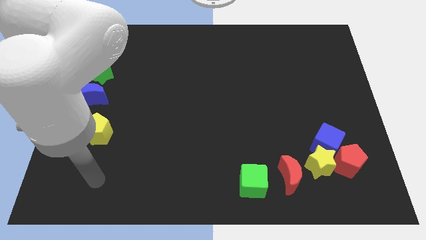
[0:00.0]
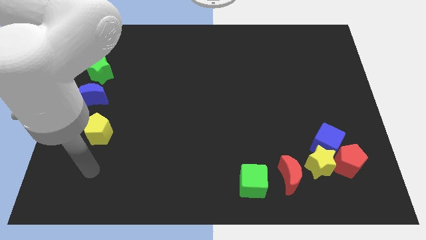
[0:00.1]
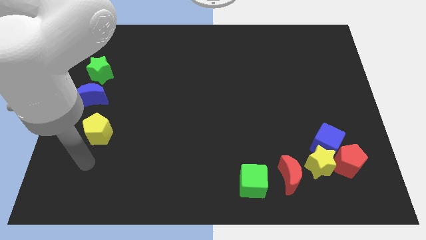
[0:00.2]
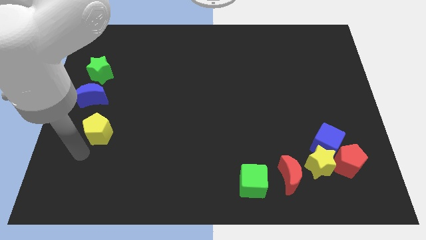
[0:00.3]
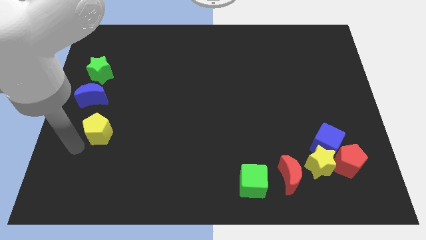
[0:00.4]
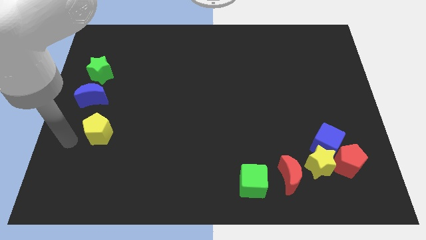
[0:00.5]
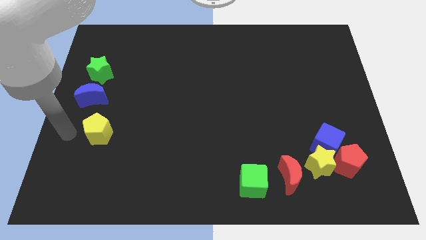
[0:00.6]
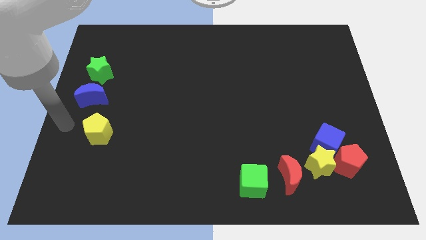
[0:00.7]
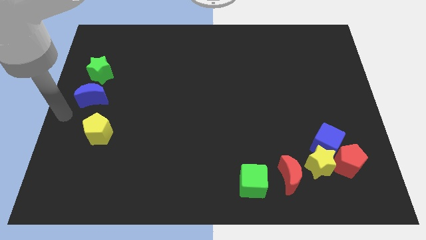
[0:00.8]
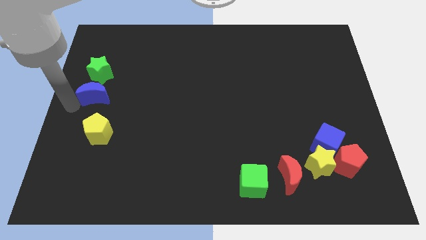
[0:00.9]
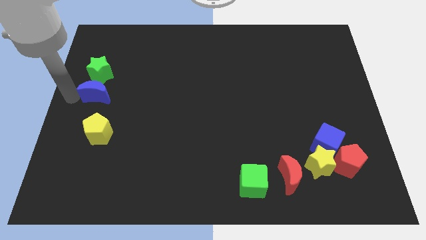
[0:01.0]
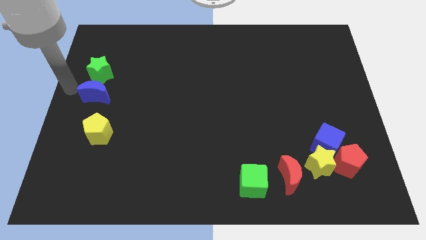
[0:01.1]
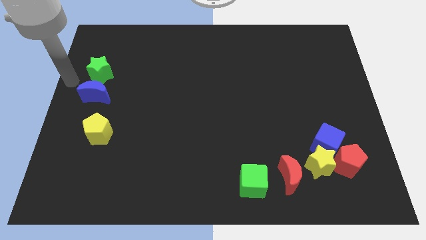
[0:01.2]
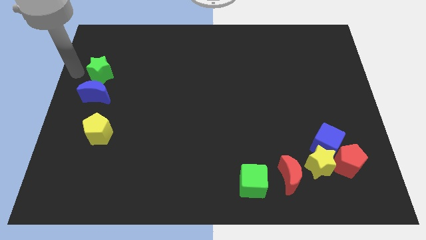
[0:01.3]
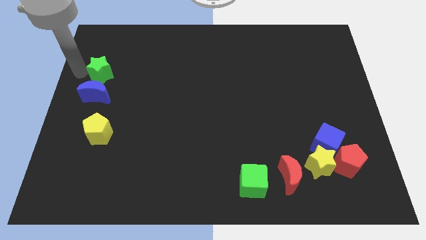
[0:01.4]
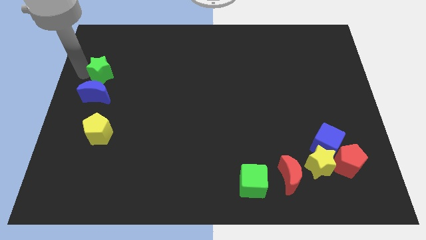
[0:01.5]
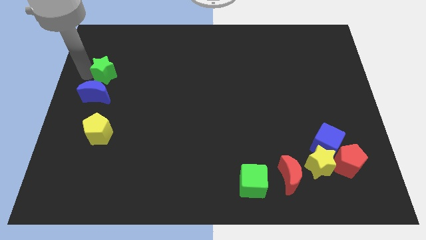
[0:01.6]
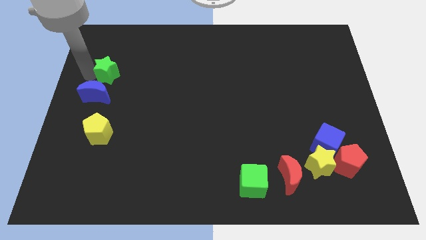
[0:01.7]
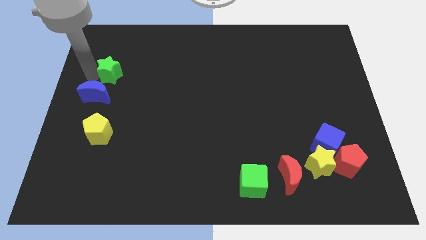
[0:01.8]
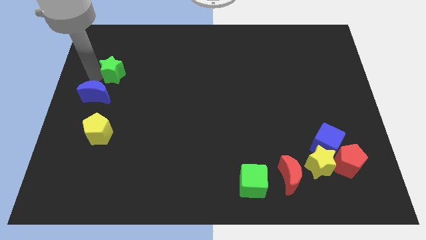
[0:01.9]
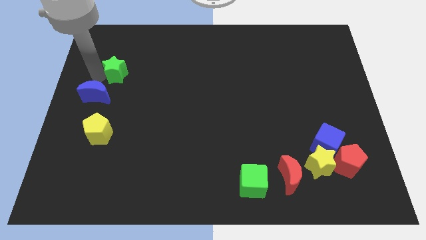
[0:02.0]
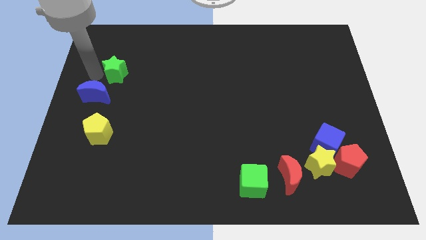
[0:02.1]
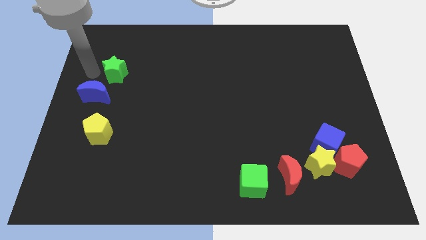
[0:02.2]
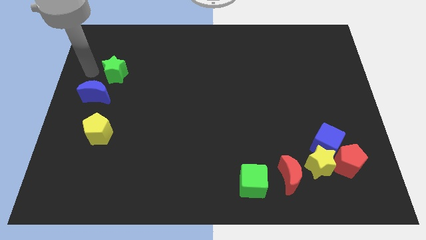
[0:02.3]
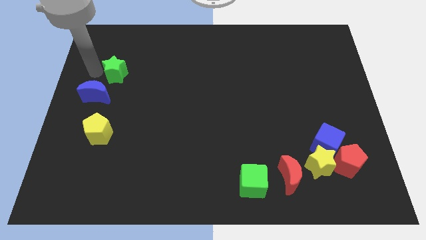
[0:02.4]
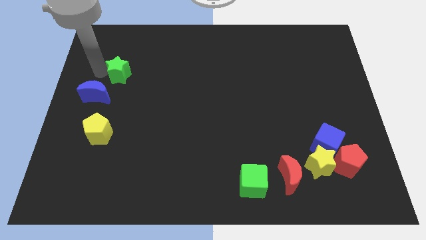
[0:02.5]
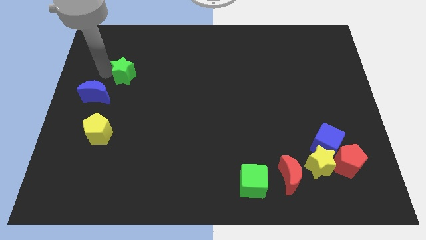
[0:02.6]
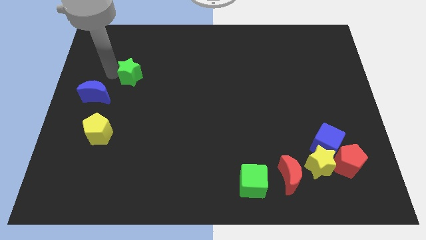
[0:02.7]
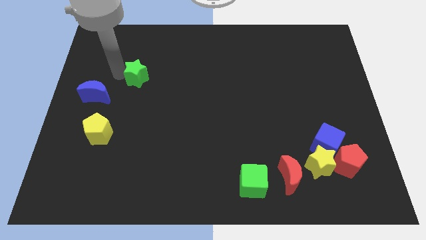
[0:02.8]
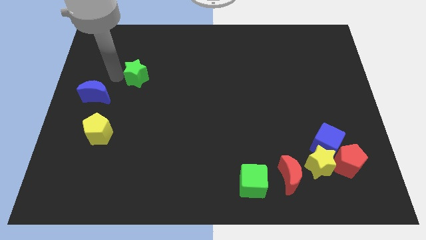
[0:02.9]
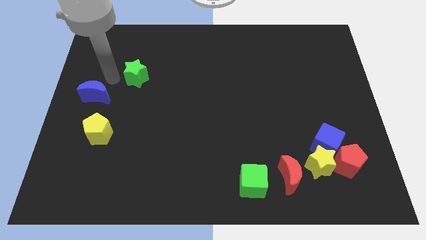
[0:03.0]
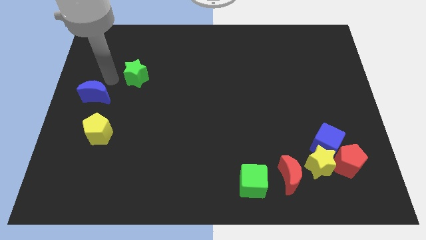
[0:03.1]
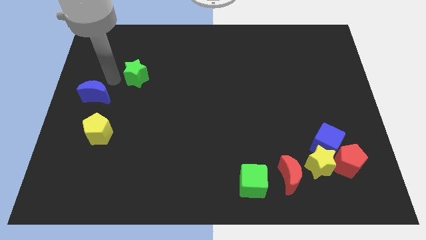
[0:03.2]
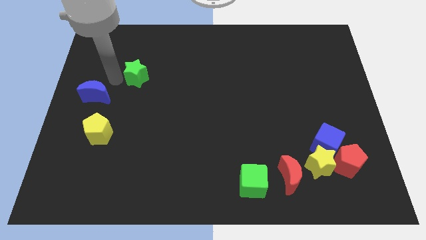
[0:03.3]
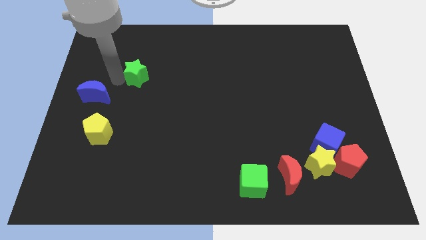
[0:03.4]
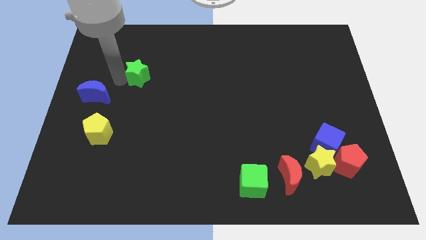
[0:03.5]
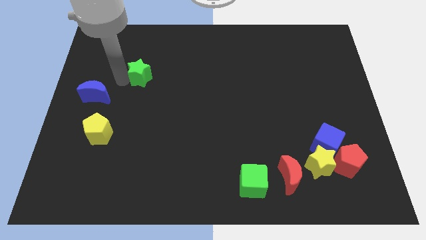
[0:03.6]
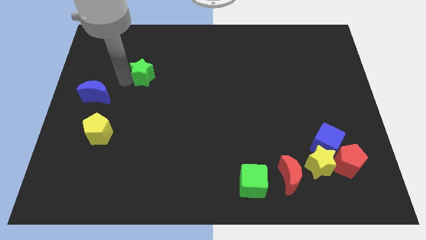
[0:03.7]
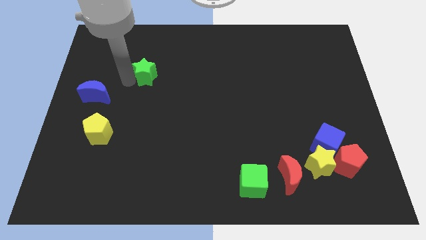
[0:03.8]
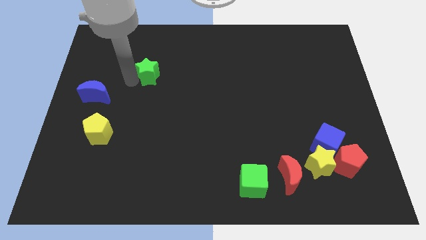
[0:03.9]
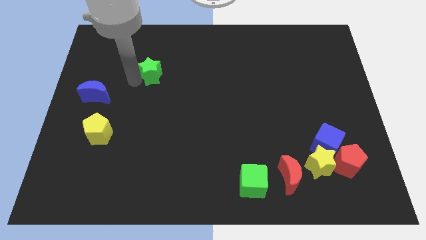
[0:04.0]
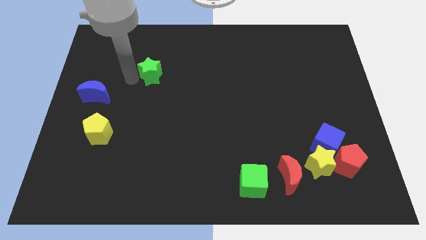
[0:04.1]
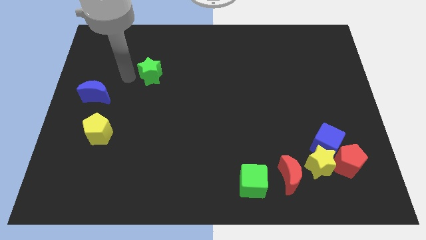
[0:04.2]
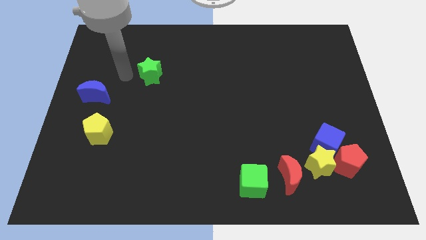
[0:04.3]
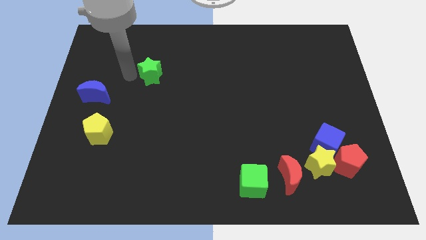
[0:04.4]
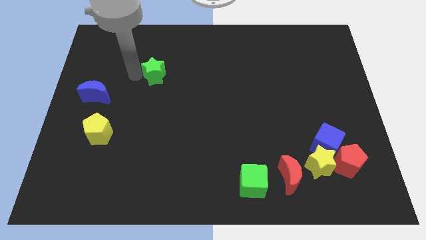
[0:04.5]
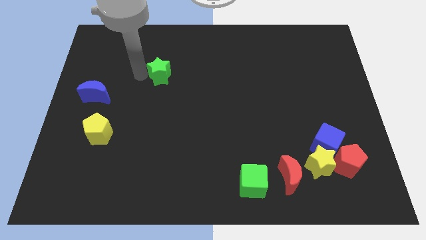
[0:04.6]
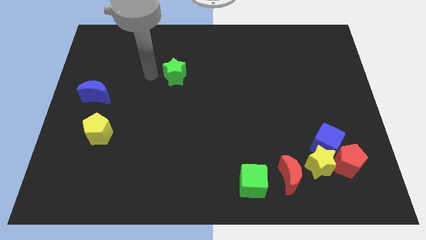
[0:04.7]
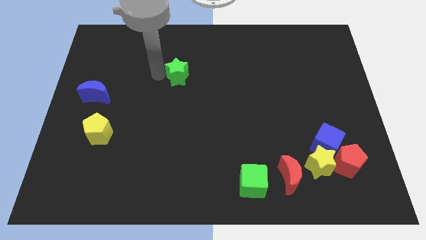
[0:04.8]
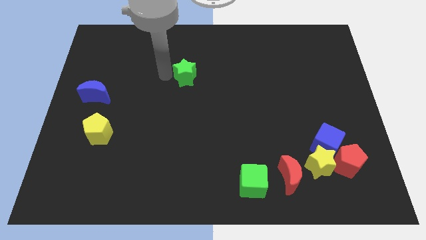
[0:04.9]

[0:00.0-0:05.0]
slide the green star to the right

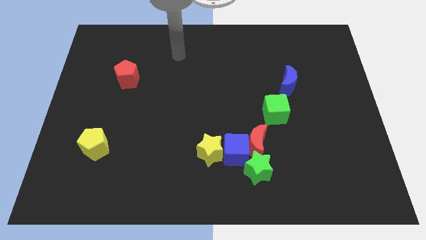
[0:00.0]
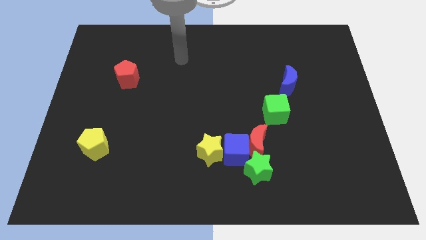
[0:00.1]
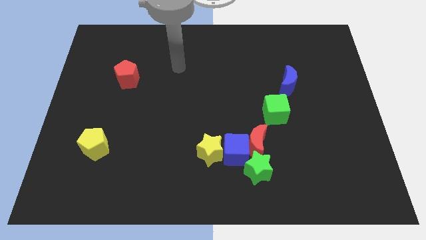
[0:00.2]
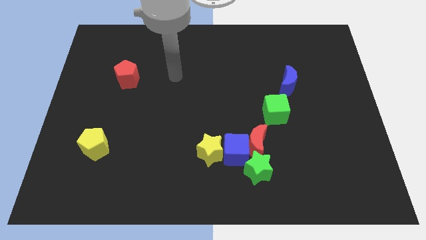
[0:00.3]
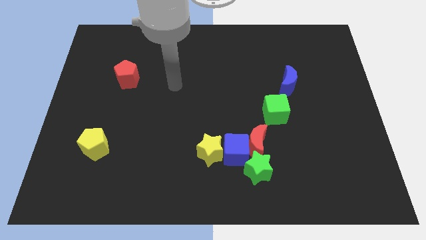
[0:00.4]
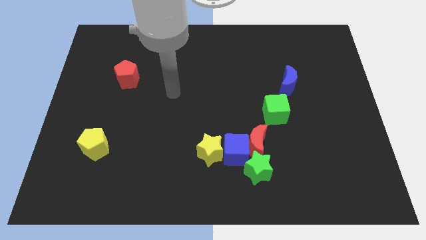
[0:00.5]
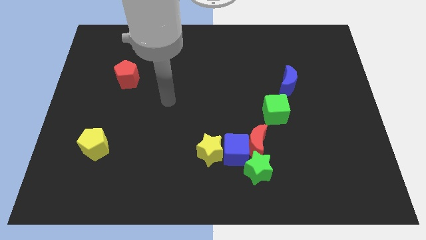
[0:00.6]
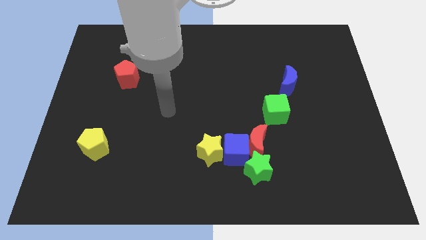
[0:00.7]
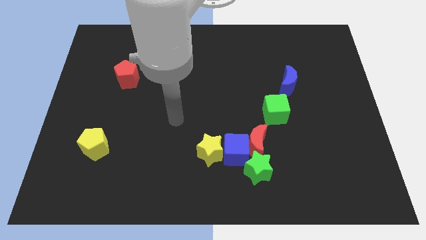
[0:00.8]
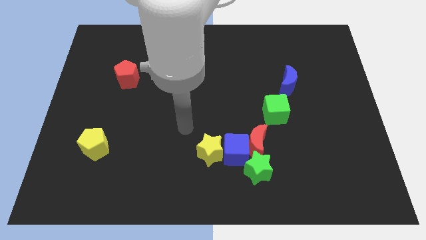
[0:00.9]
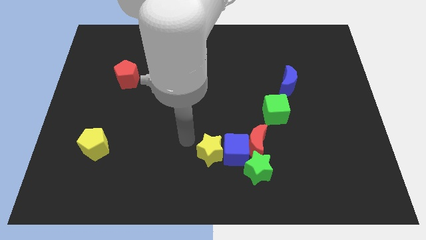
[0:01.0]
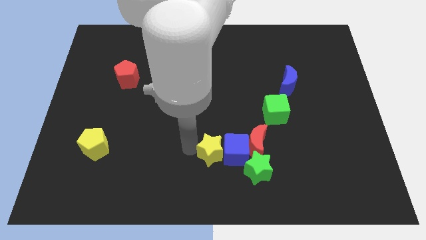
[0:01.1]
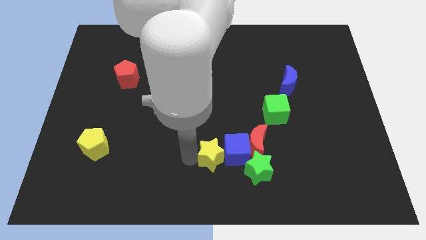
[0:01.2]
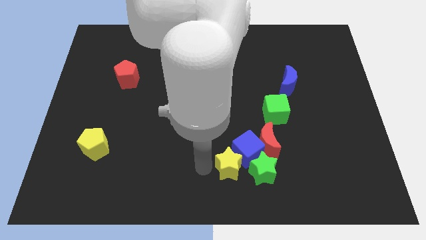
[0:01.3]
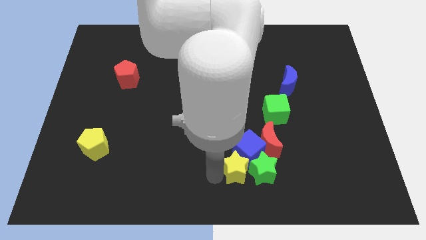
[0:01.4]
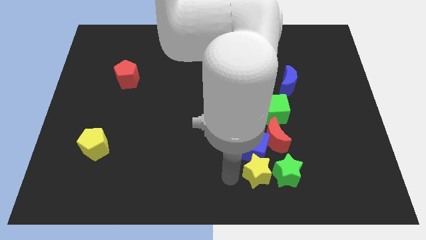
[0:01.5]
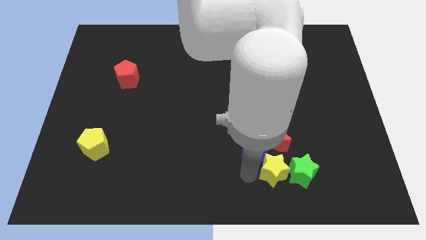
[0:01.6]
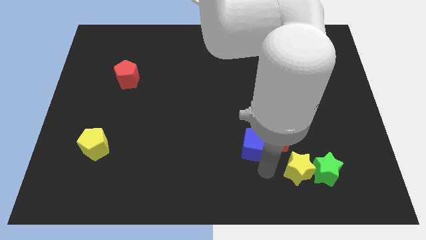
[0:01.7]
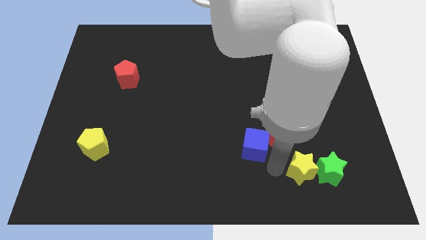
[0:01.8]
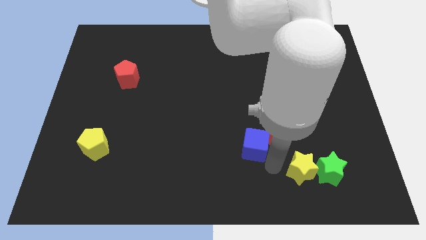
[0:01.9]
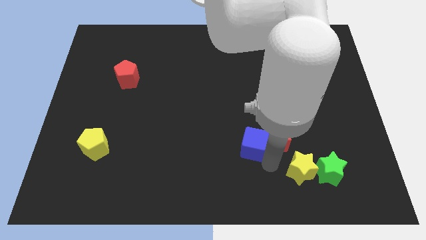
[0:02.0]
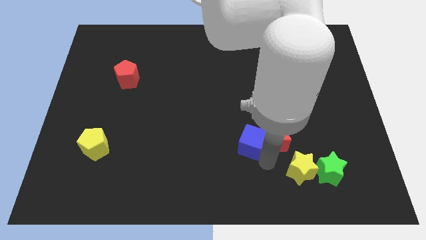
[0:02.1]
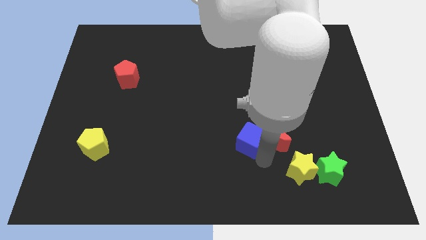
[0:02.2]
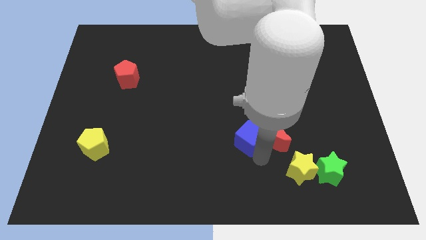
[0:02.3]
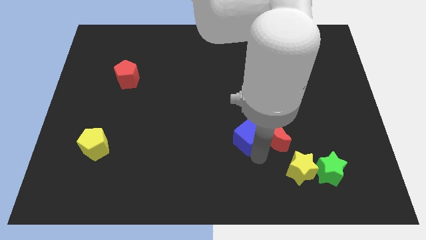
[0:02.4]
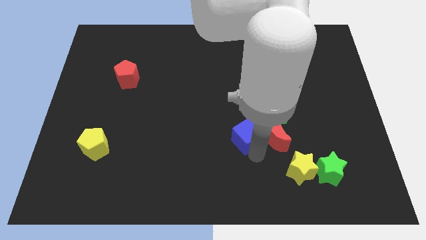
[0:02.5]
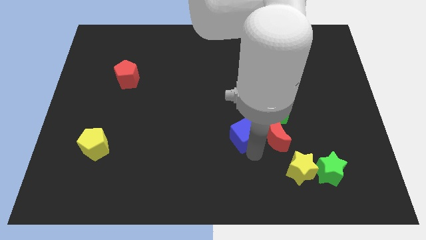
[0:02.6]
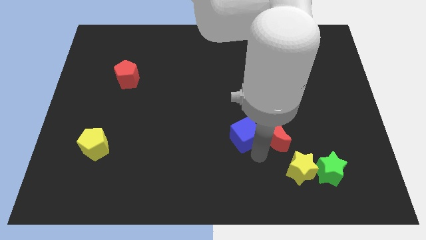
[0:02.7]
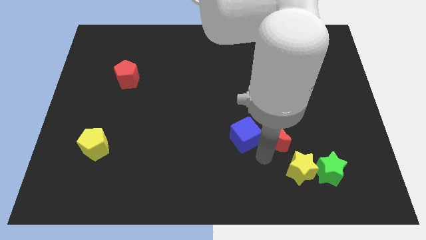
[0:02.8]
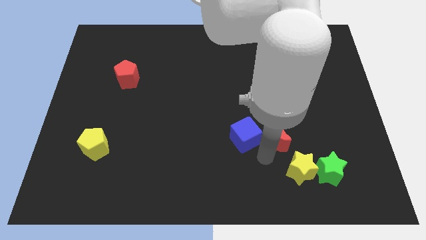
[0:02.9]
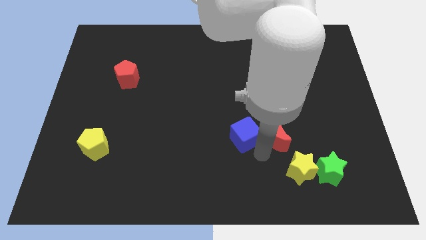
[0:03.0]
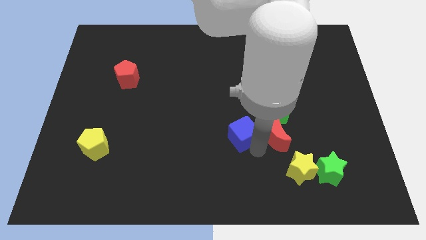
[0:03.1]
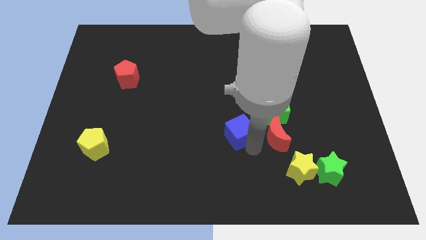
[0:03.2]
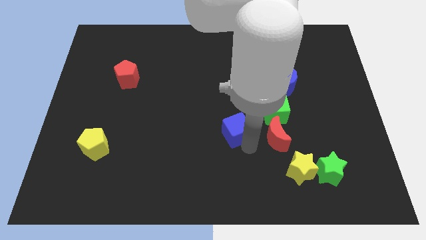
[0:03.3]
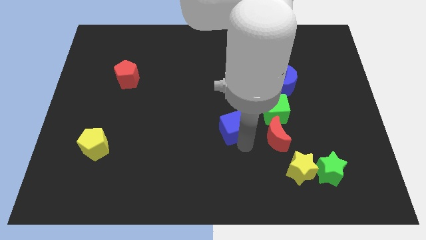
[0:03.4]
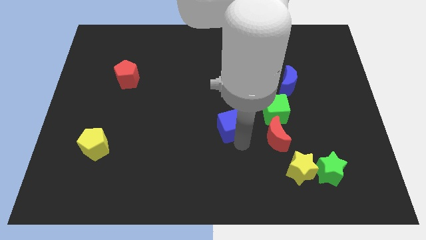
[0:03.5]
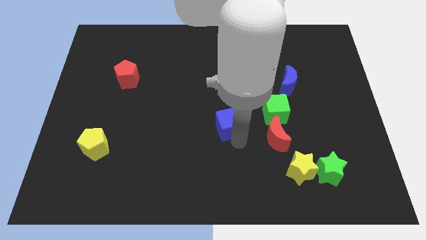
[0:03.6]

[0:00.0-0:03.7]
move the blue cube up a little bit
